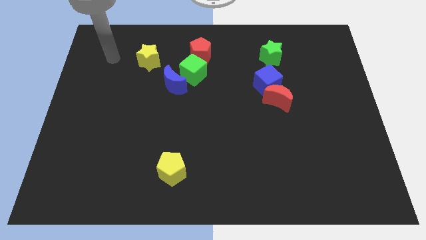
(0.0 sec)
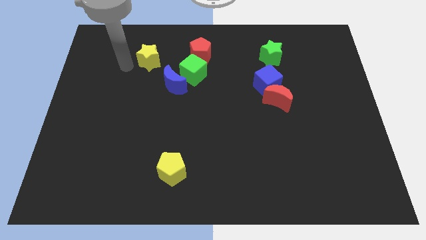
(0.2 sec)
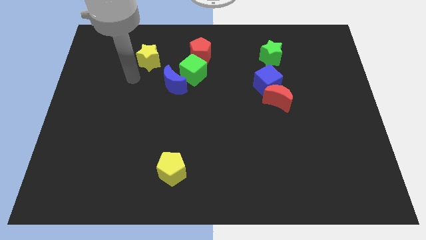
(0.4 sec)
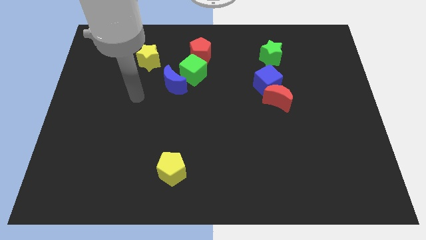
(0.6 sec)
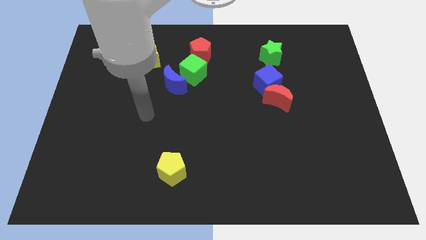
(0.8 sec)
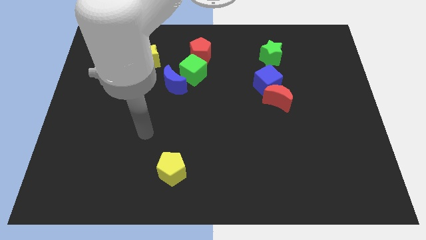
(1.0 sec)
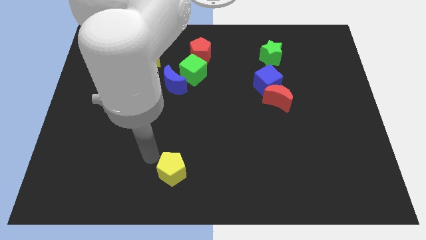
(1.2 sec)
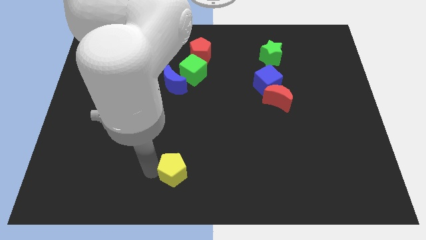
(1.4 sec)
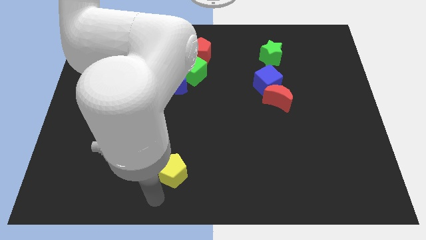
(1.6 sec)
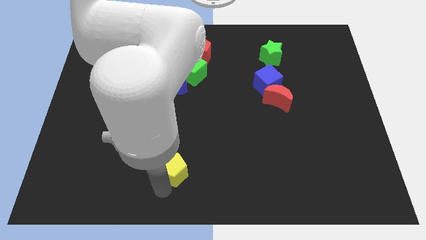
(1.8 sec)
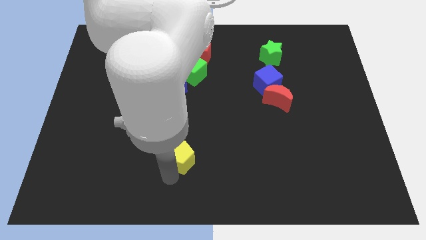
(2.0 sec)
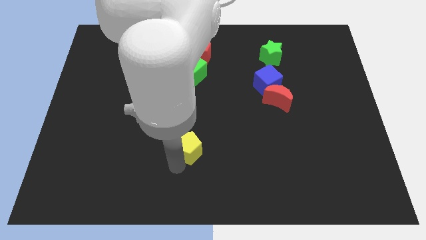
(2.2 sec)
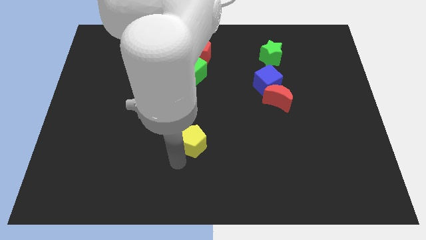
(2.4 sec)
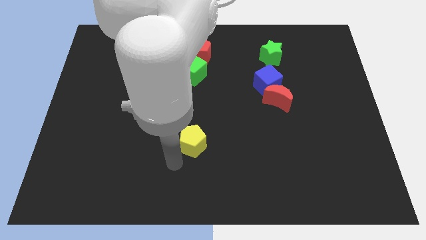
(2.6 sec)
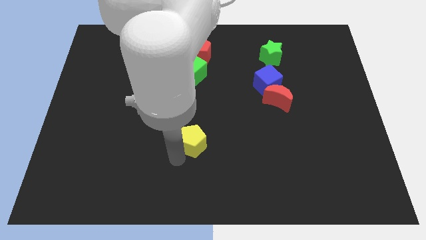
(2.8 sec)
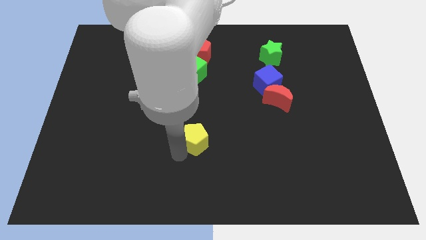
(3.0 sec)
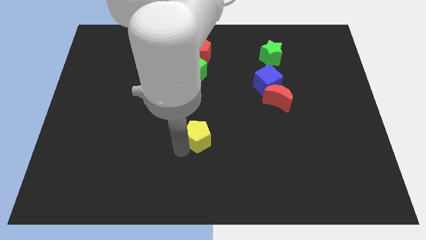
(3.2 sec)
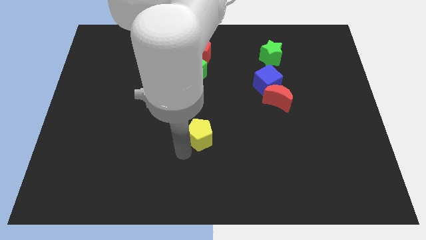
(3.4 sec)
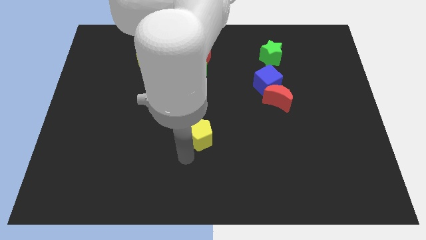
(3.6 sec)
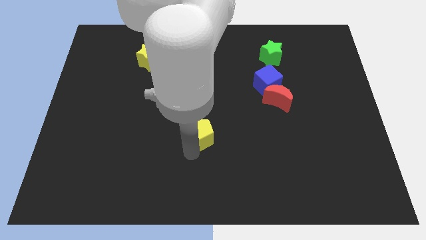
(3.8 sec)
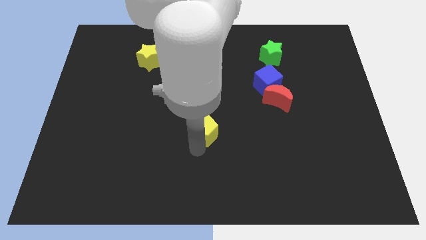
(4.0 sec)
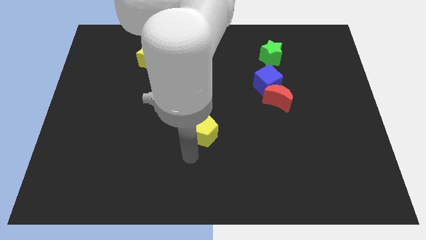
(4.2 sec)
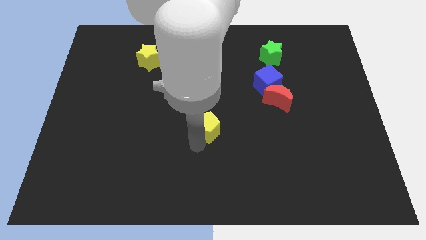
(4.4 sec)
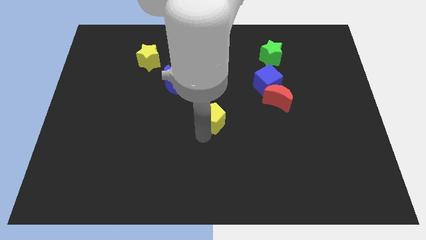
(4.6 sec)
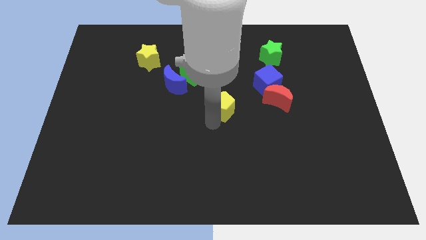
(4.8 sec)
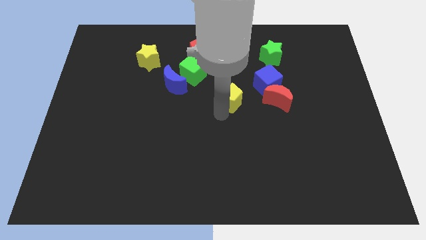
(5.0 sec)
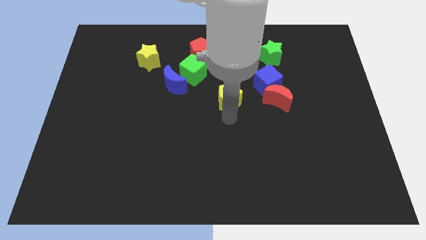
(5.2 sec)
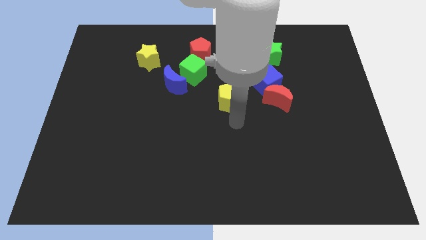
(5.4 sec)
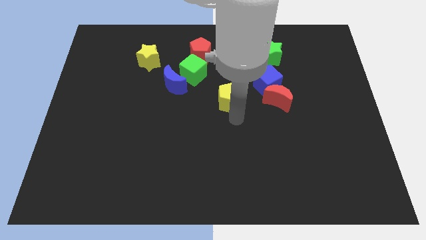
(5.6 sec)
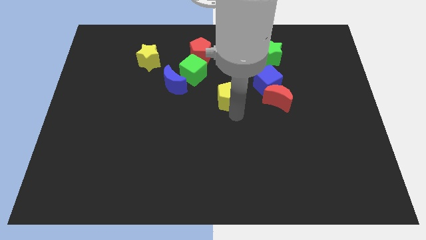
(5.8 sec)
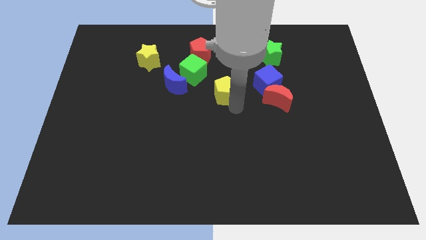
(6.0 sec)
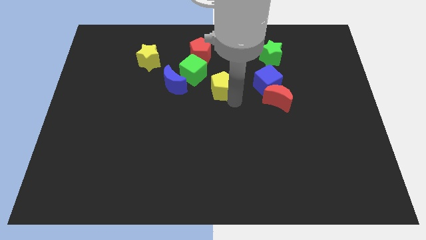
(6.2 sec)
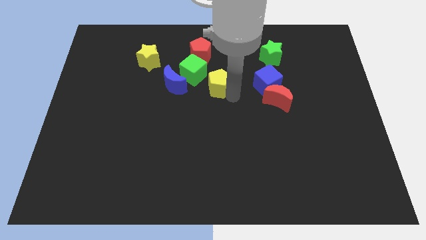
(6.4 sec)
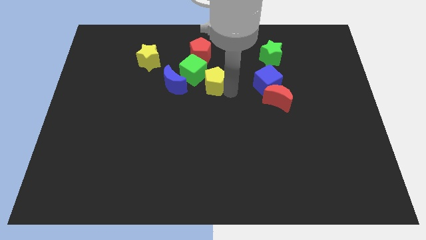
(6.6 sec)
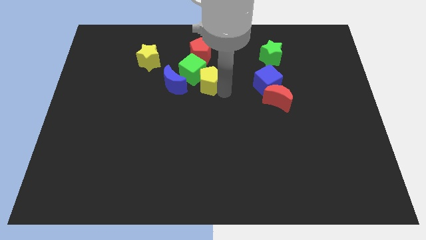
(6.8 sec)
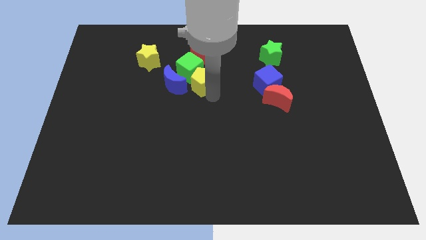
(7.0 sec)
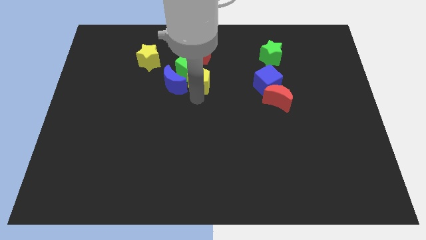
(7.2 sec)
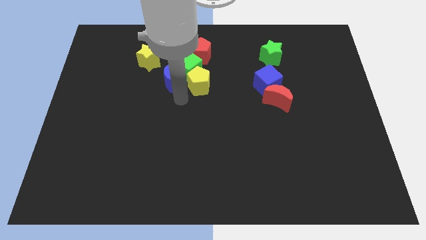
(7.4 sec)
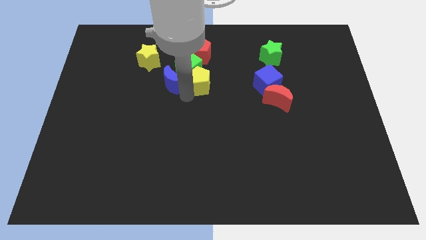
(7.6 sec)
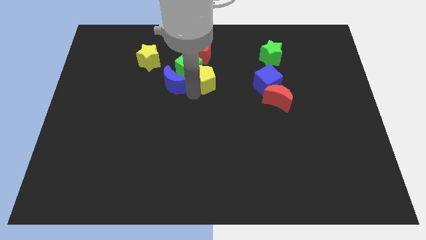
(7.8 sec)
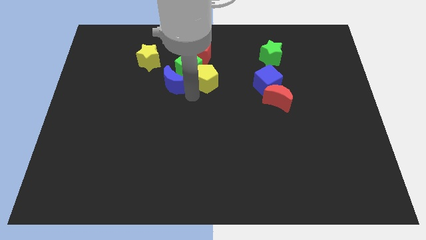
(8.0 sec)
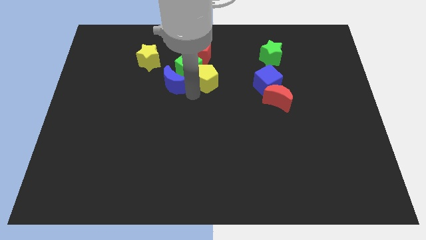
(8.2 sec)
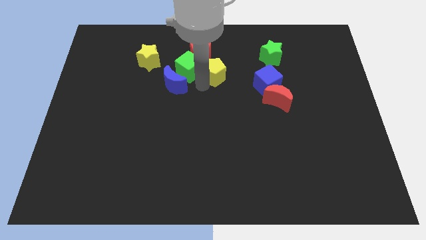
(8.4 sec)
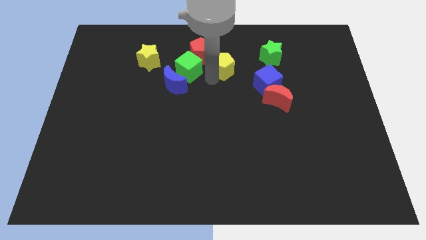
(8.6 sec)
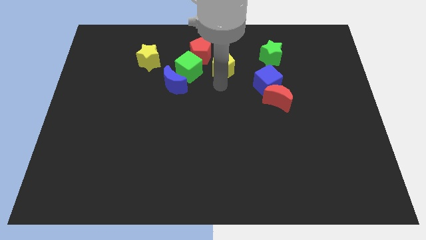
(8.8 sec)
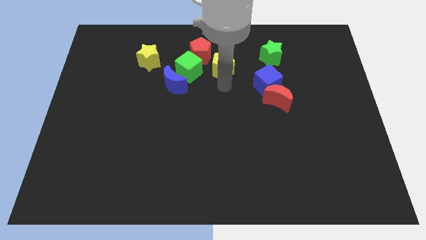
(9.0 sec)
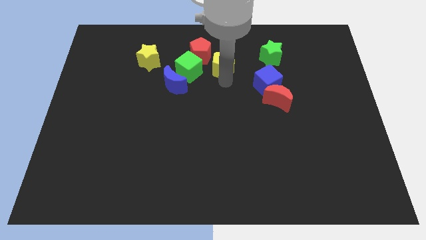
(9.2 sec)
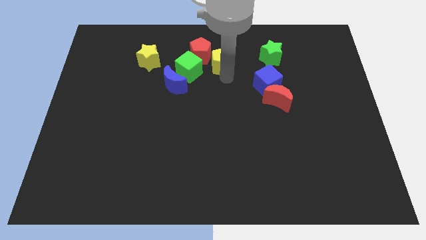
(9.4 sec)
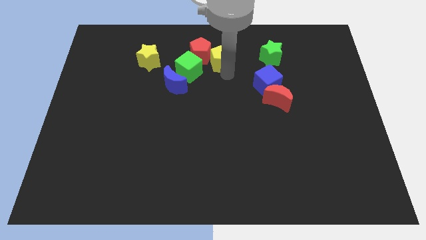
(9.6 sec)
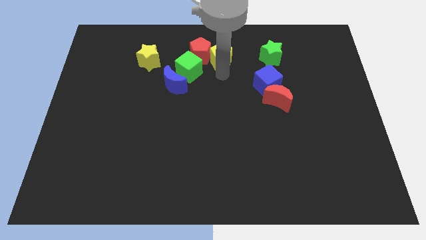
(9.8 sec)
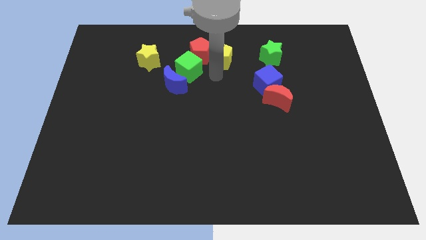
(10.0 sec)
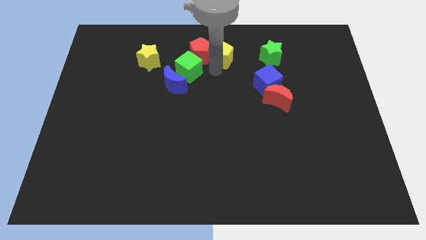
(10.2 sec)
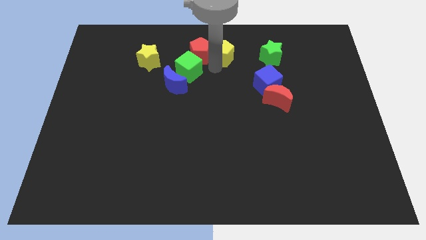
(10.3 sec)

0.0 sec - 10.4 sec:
move the yellow pentagon to the top side

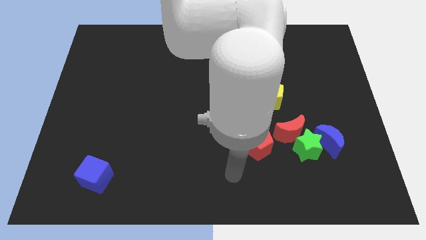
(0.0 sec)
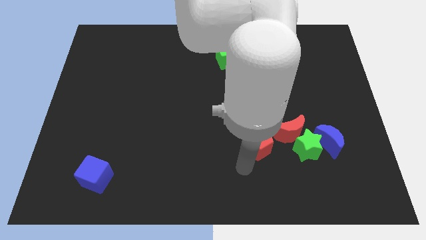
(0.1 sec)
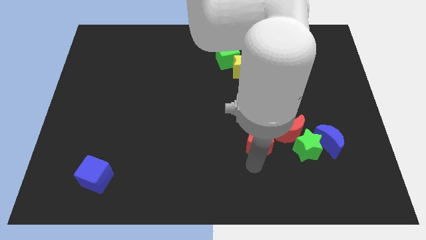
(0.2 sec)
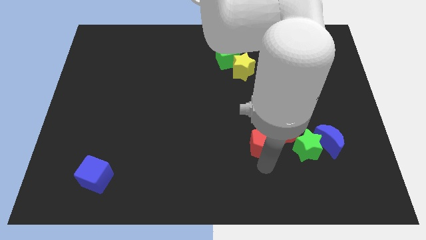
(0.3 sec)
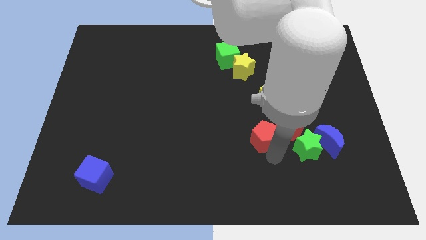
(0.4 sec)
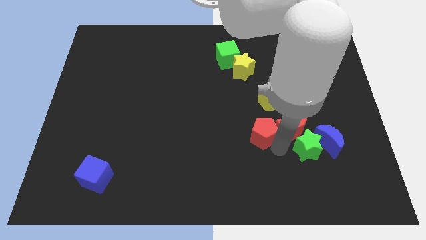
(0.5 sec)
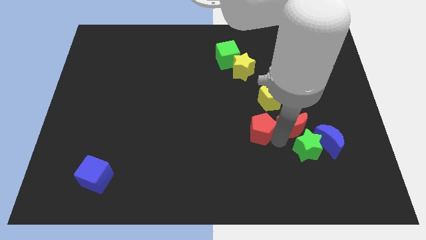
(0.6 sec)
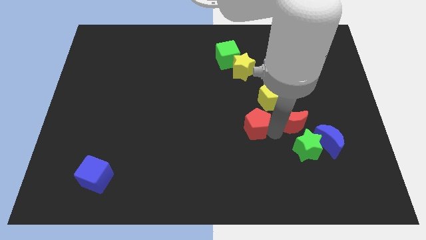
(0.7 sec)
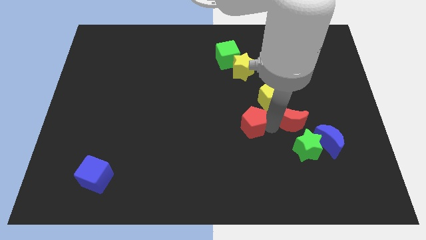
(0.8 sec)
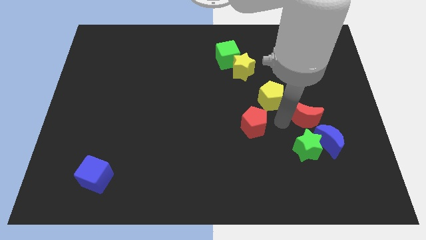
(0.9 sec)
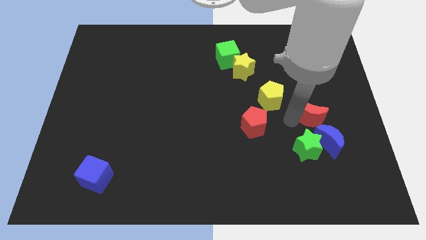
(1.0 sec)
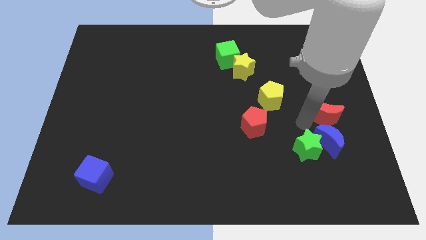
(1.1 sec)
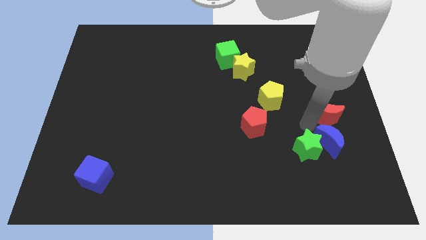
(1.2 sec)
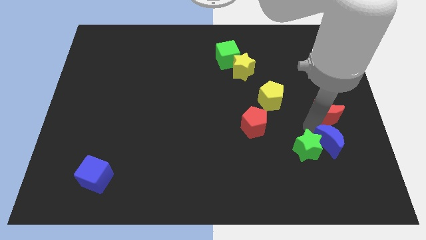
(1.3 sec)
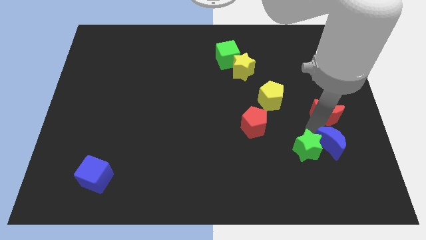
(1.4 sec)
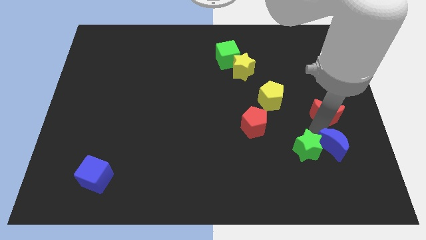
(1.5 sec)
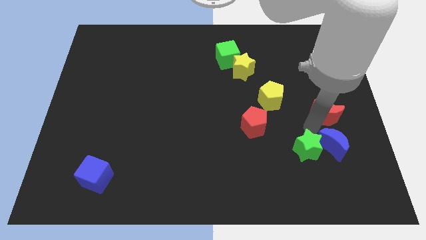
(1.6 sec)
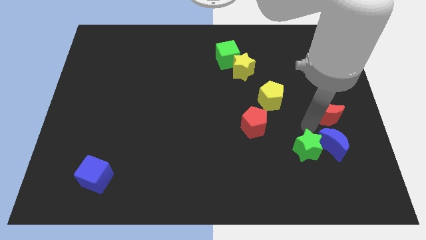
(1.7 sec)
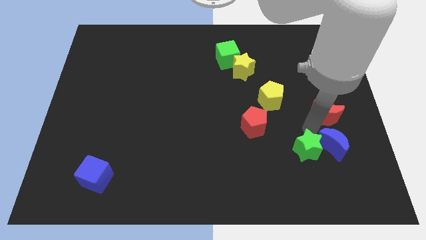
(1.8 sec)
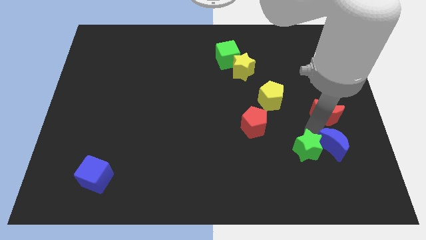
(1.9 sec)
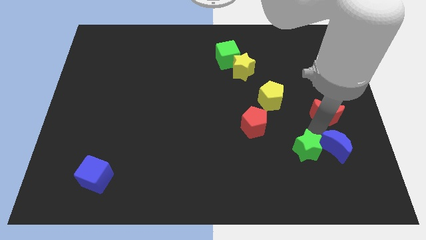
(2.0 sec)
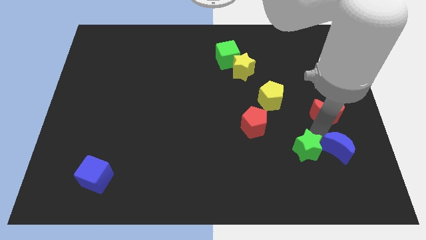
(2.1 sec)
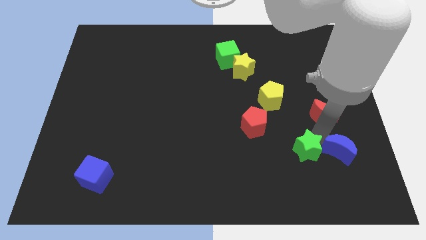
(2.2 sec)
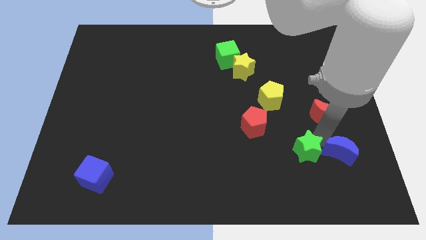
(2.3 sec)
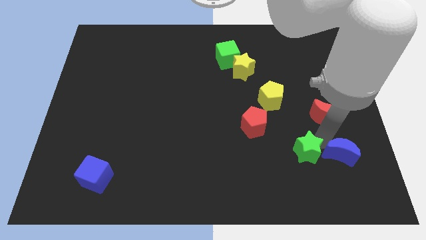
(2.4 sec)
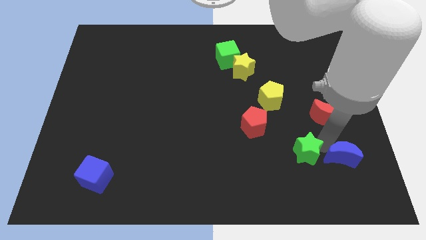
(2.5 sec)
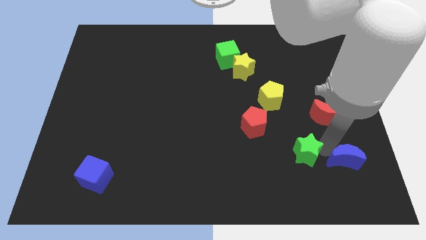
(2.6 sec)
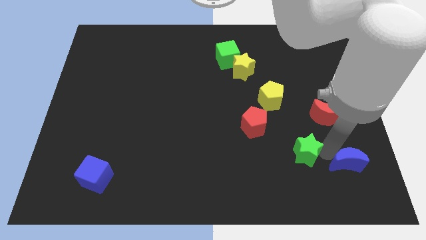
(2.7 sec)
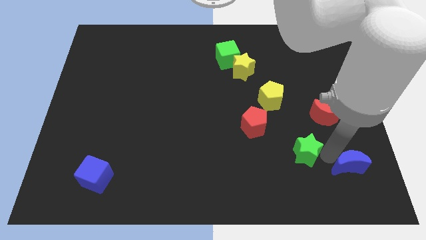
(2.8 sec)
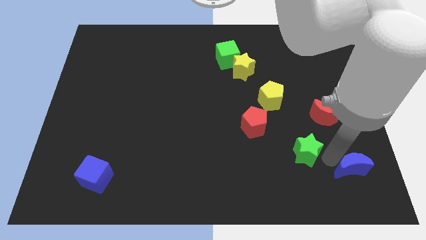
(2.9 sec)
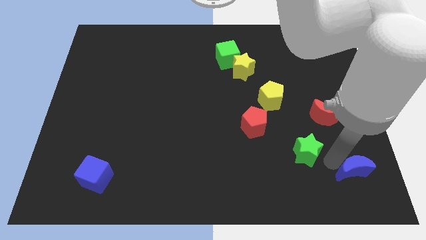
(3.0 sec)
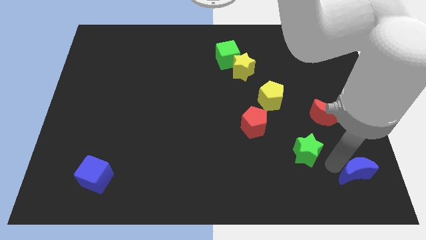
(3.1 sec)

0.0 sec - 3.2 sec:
put the blue moon to the bottom right
